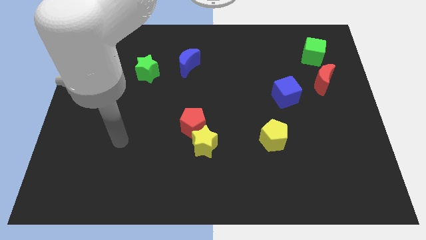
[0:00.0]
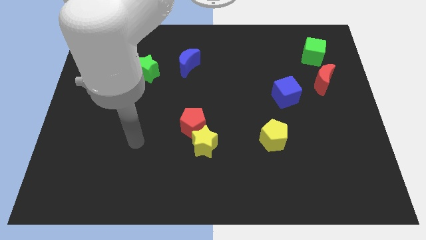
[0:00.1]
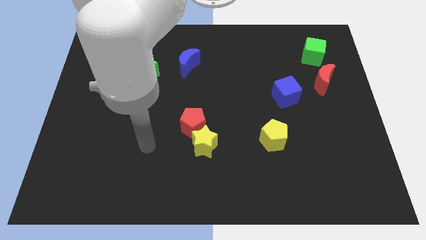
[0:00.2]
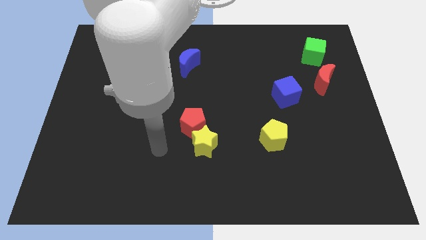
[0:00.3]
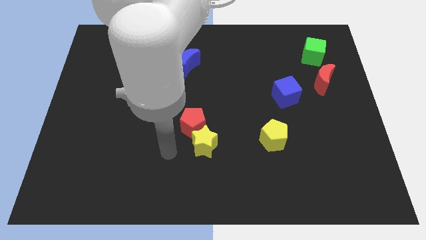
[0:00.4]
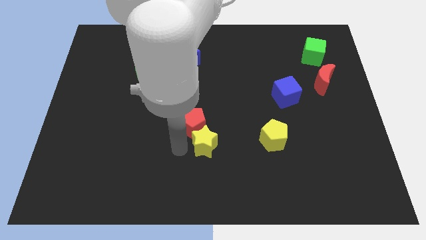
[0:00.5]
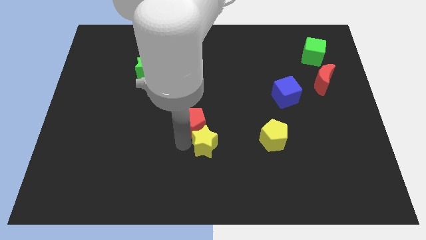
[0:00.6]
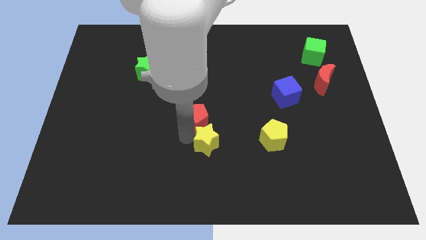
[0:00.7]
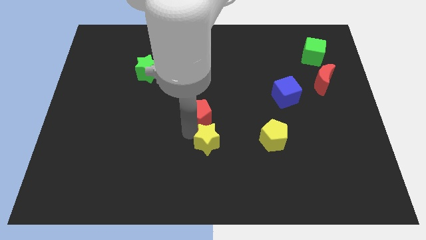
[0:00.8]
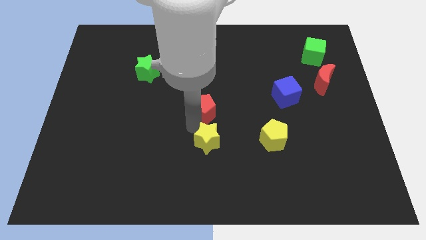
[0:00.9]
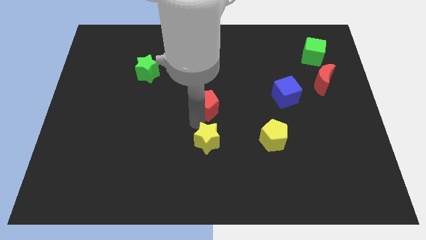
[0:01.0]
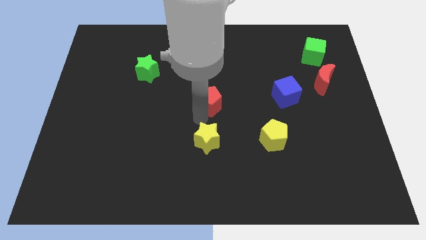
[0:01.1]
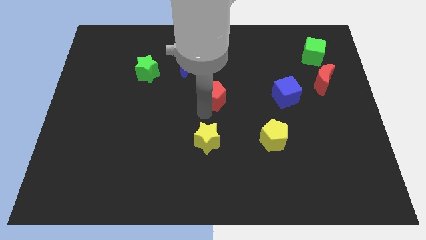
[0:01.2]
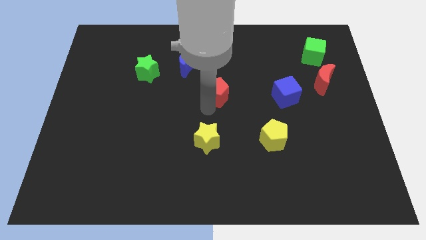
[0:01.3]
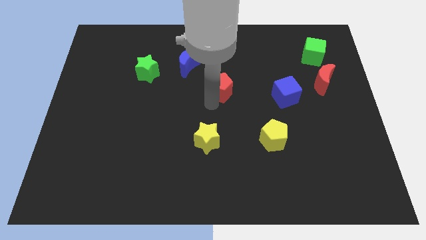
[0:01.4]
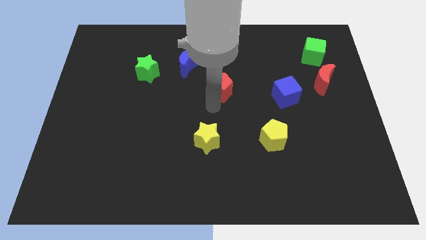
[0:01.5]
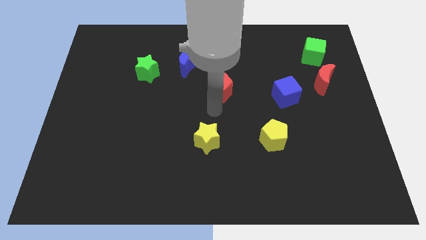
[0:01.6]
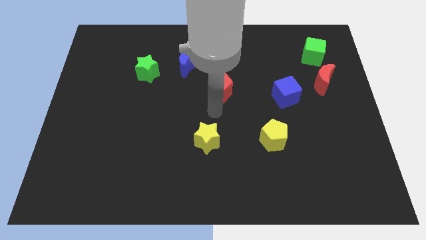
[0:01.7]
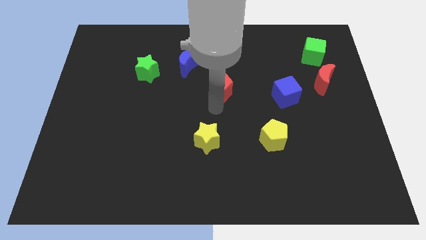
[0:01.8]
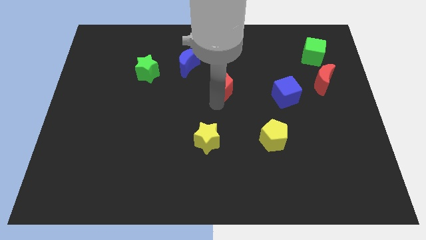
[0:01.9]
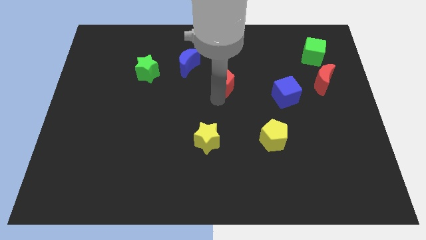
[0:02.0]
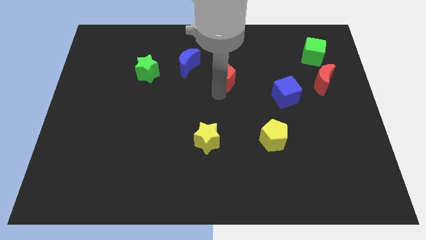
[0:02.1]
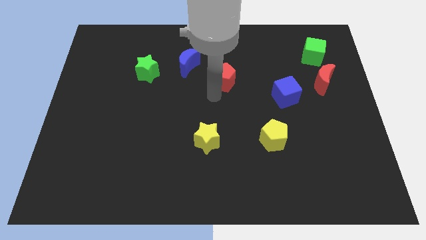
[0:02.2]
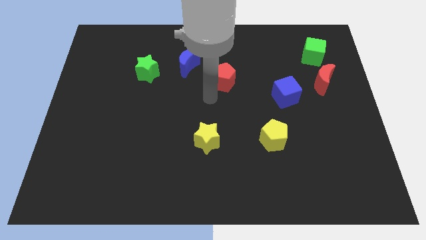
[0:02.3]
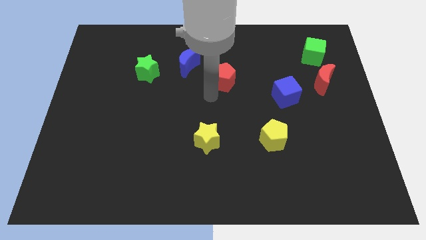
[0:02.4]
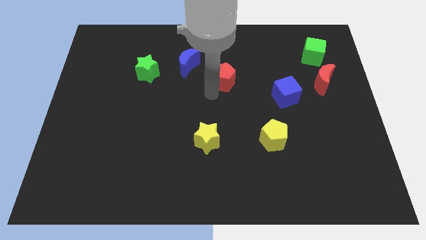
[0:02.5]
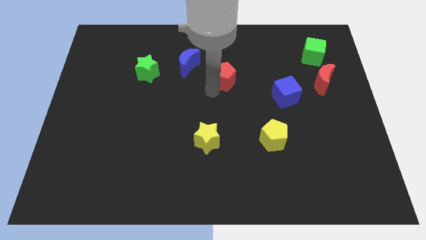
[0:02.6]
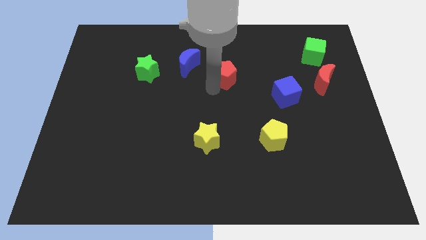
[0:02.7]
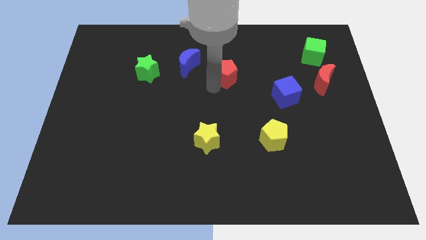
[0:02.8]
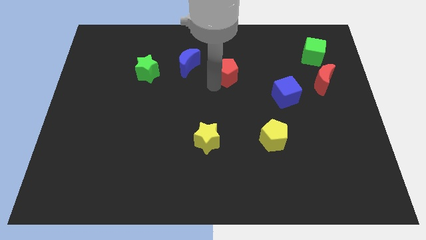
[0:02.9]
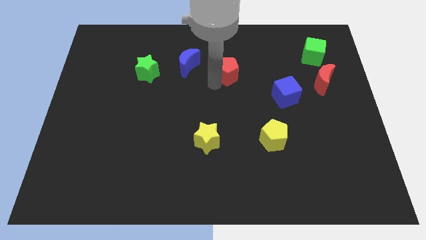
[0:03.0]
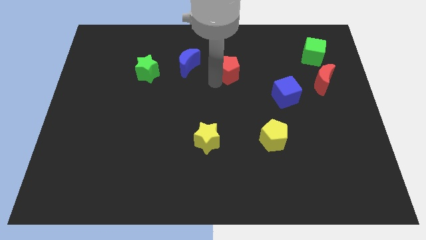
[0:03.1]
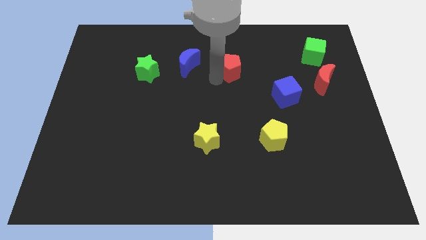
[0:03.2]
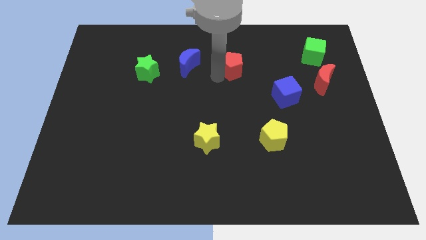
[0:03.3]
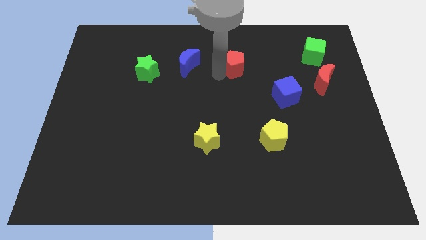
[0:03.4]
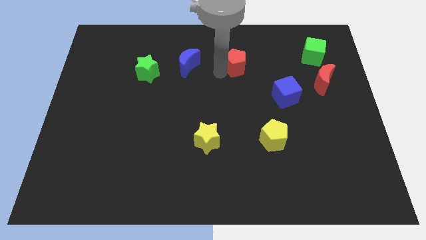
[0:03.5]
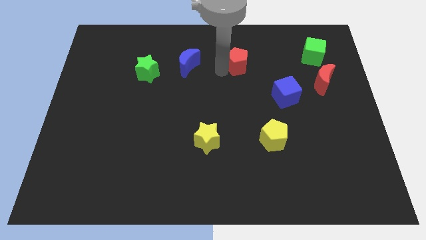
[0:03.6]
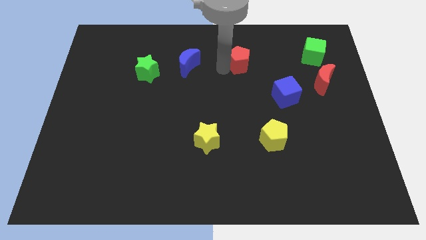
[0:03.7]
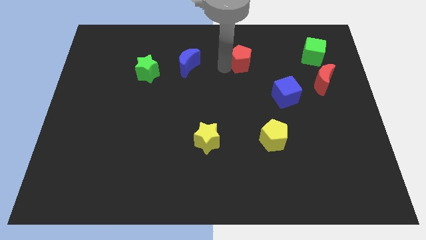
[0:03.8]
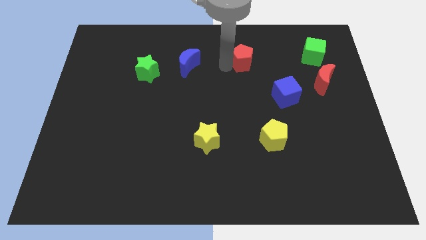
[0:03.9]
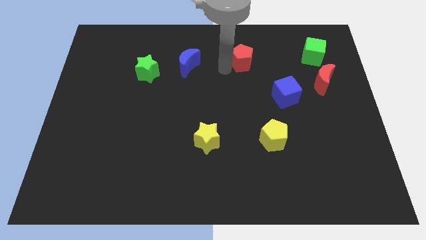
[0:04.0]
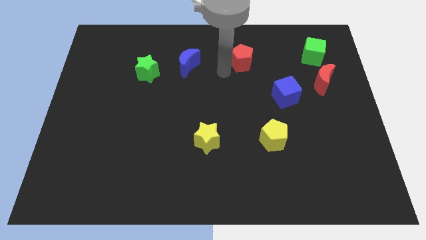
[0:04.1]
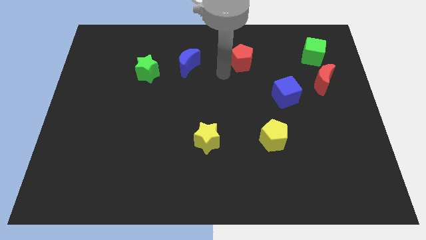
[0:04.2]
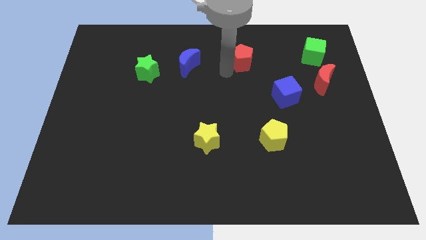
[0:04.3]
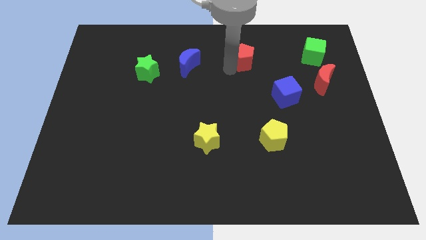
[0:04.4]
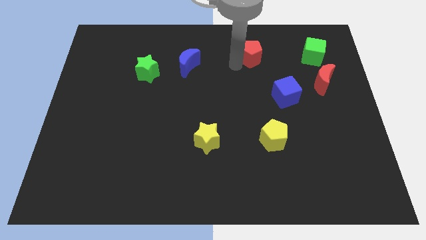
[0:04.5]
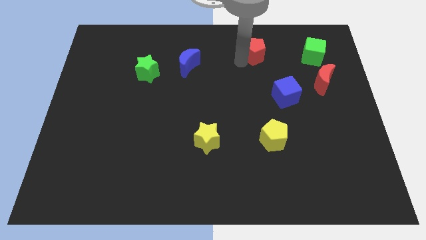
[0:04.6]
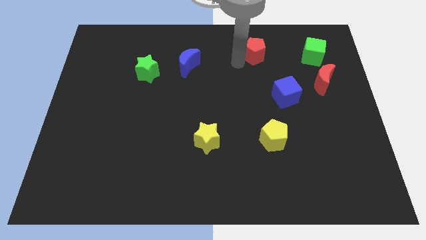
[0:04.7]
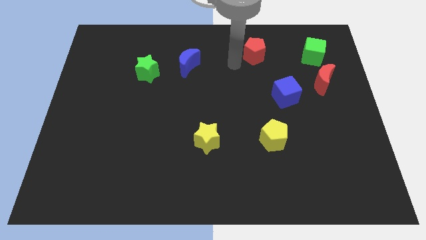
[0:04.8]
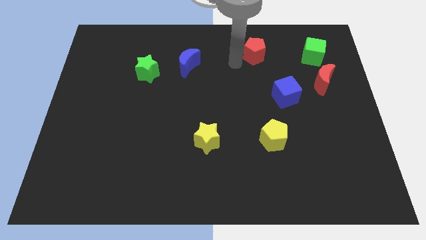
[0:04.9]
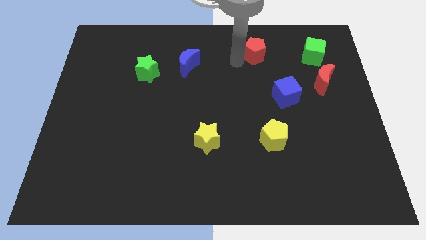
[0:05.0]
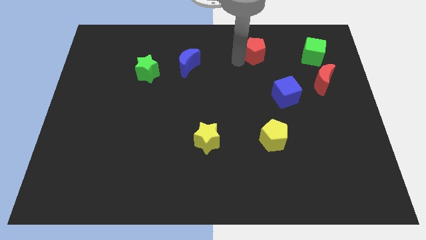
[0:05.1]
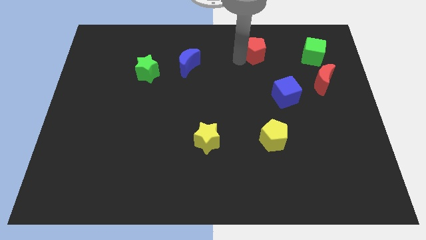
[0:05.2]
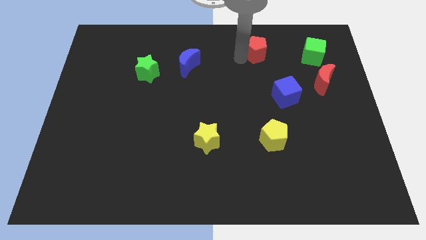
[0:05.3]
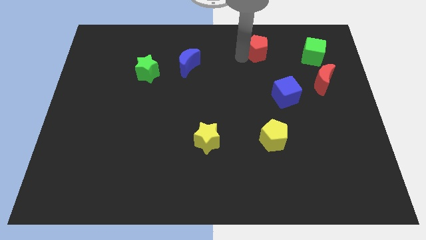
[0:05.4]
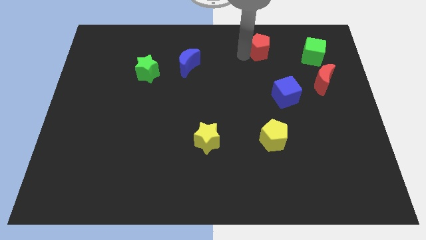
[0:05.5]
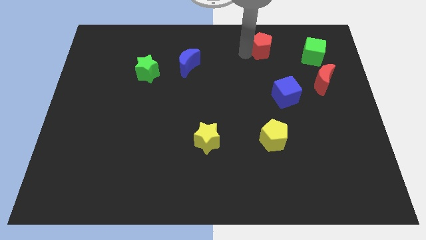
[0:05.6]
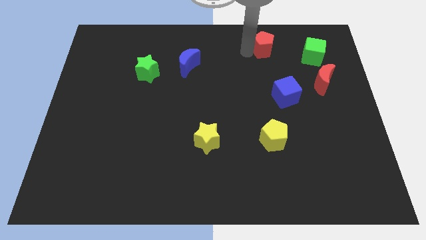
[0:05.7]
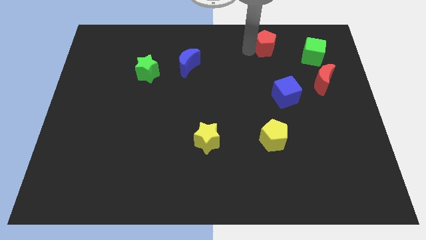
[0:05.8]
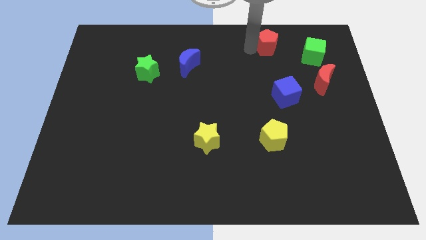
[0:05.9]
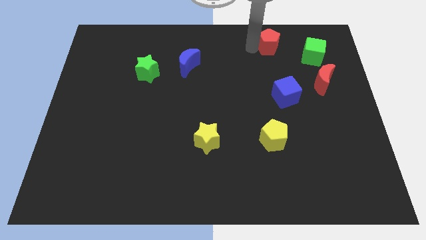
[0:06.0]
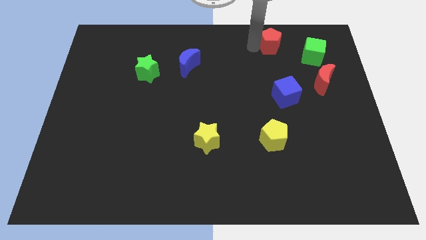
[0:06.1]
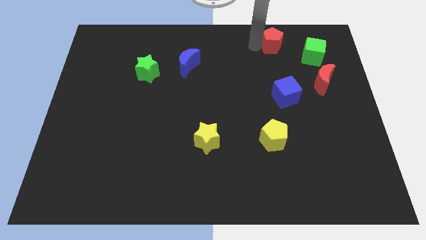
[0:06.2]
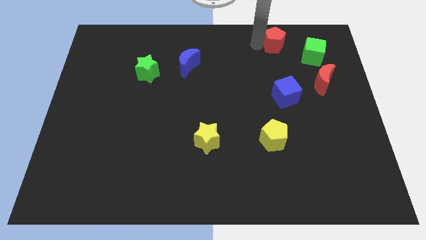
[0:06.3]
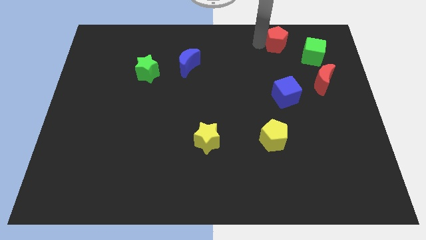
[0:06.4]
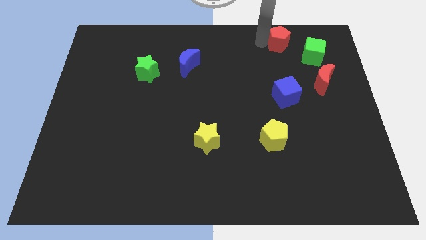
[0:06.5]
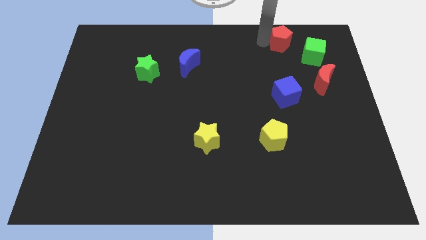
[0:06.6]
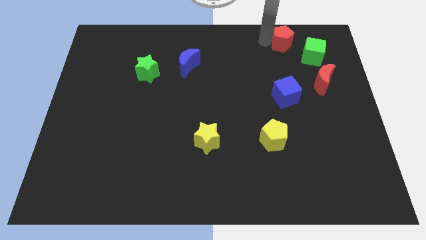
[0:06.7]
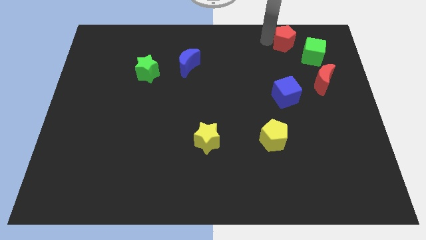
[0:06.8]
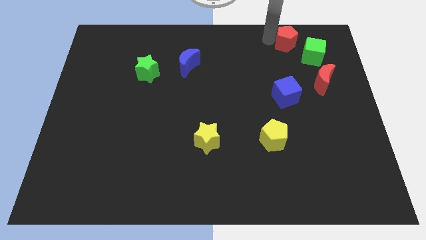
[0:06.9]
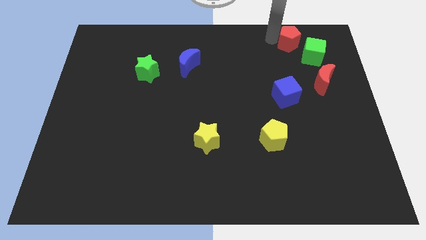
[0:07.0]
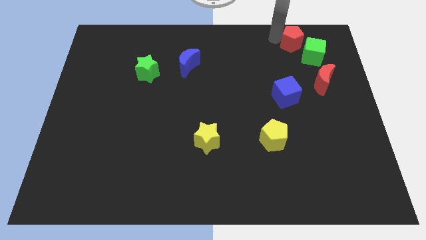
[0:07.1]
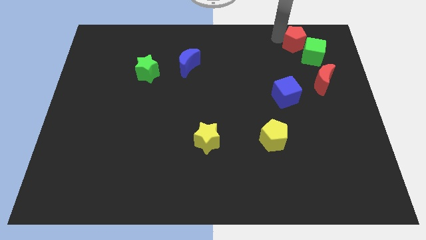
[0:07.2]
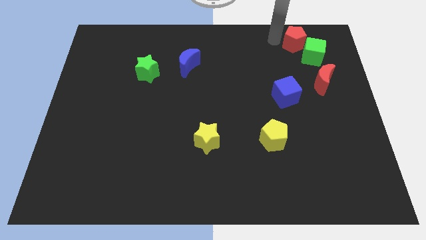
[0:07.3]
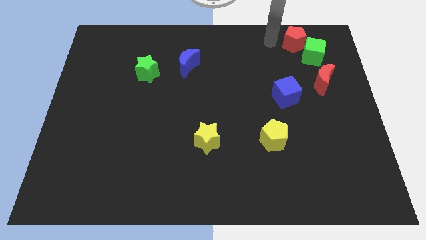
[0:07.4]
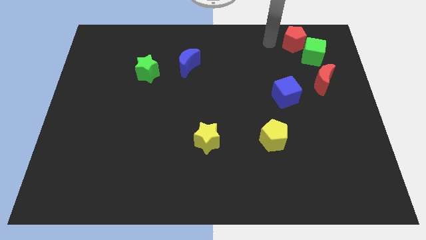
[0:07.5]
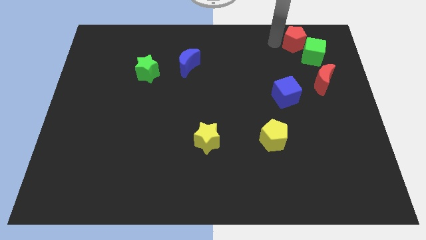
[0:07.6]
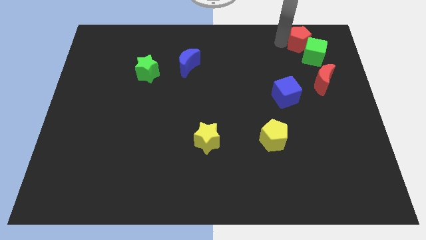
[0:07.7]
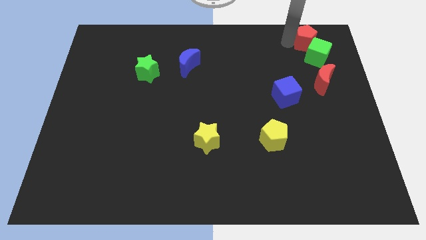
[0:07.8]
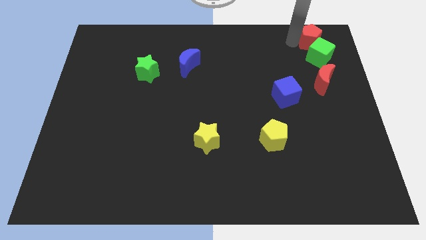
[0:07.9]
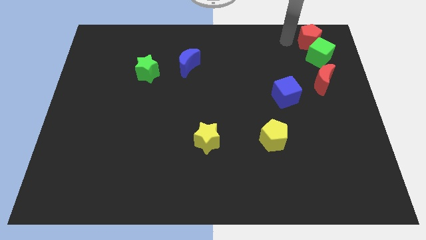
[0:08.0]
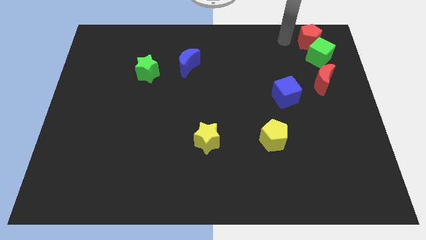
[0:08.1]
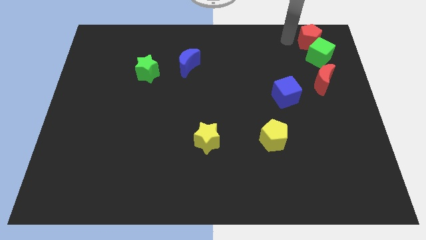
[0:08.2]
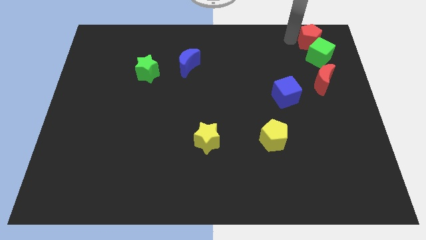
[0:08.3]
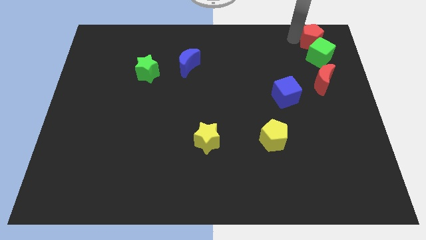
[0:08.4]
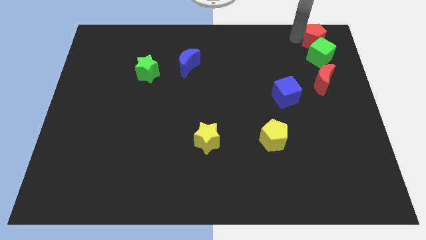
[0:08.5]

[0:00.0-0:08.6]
push the red pentagon to the top right of the board
